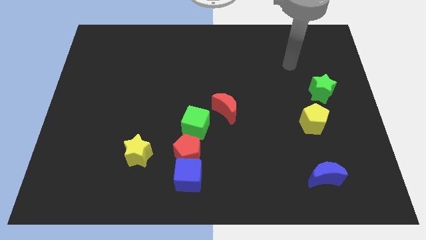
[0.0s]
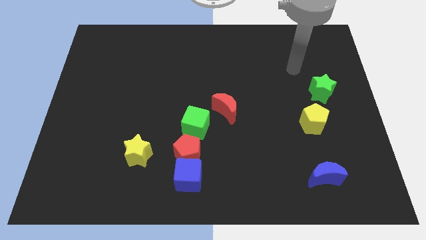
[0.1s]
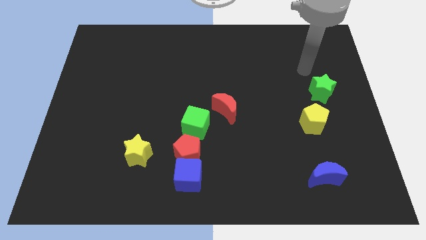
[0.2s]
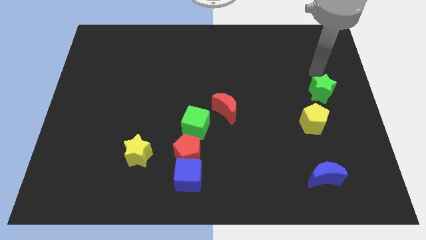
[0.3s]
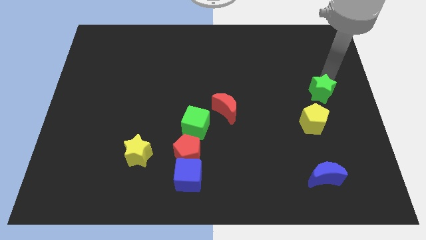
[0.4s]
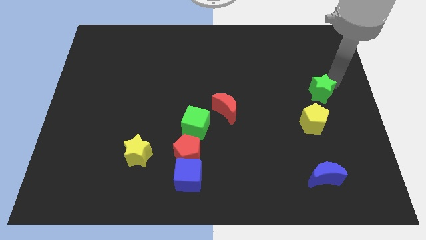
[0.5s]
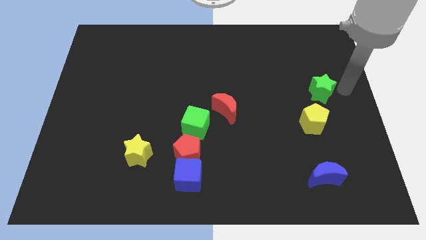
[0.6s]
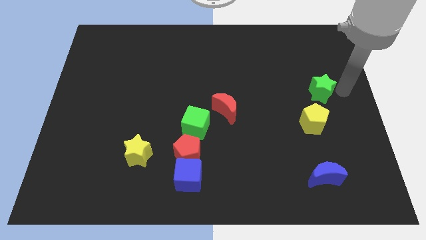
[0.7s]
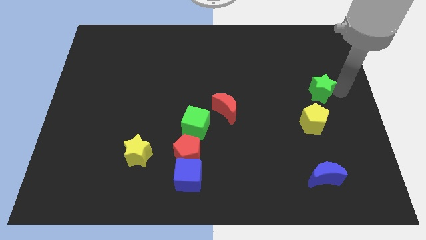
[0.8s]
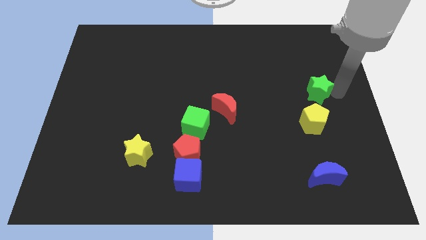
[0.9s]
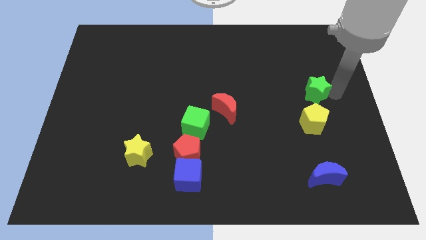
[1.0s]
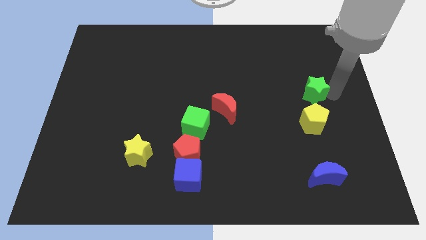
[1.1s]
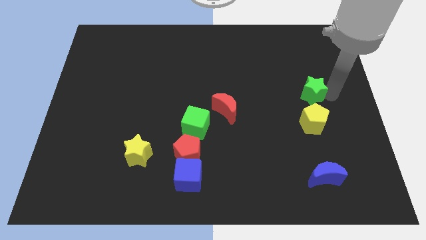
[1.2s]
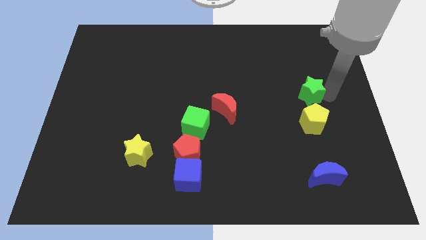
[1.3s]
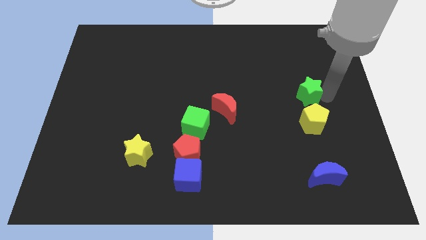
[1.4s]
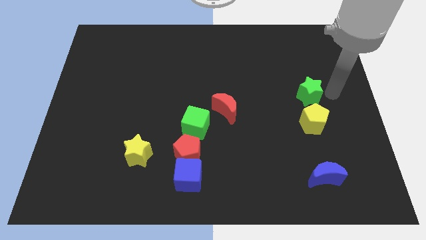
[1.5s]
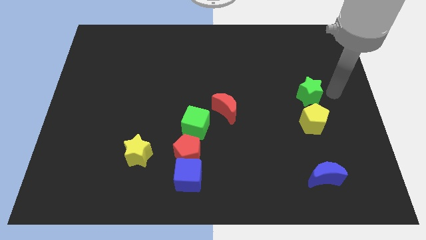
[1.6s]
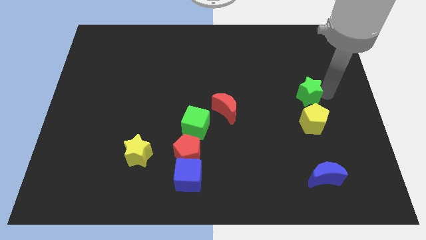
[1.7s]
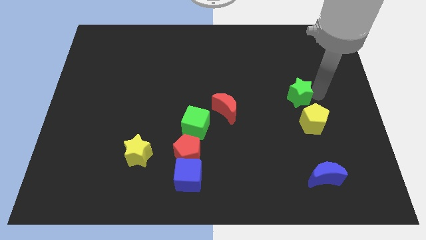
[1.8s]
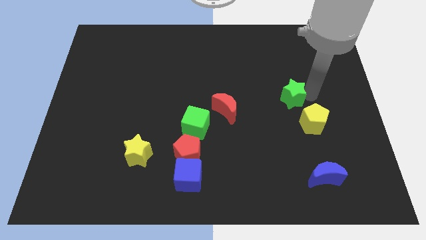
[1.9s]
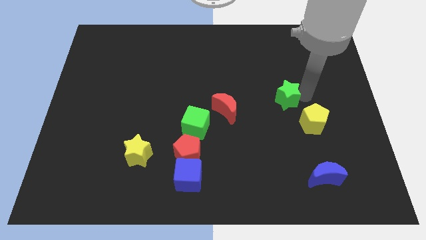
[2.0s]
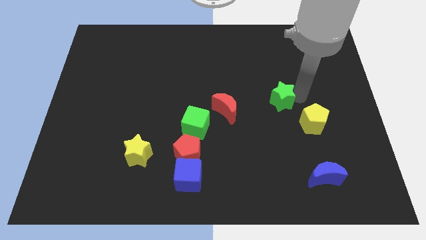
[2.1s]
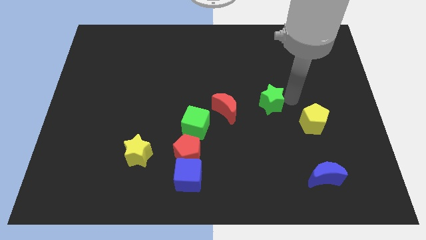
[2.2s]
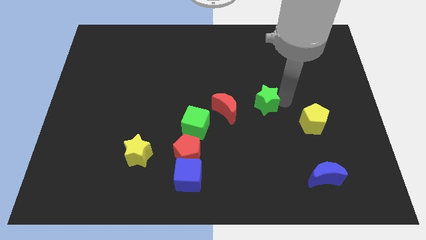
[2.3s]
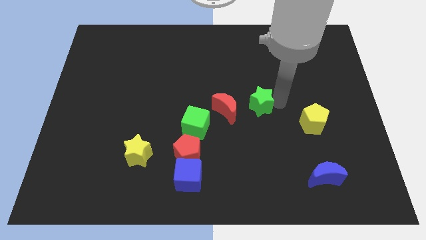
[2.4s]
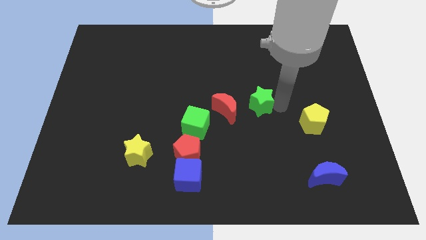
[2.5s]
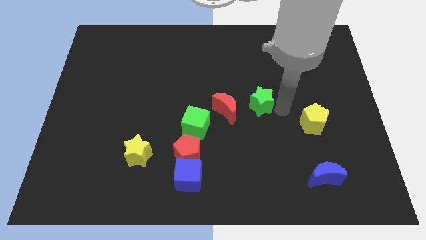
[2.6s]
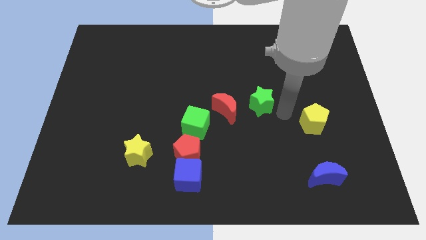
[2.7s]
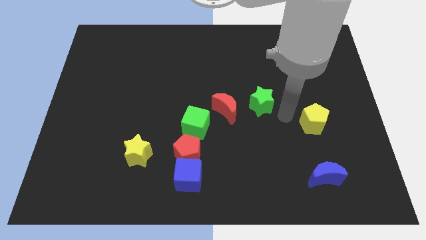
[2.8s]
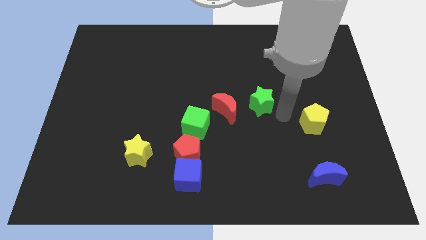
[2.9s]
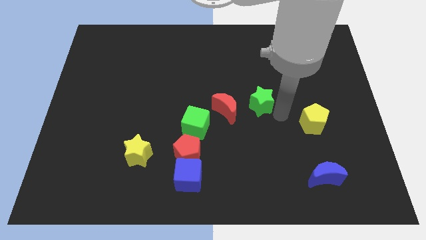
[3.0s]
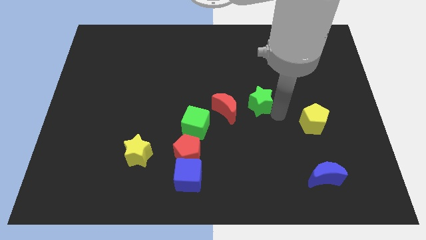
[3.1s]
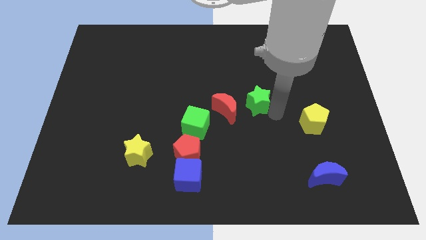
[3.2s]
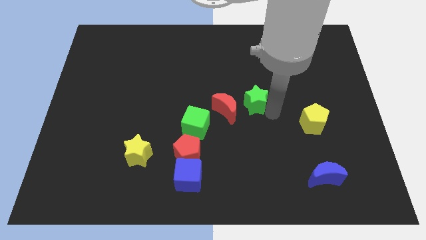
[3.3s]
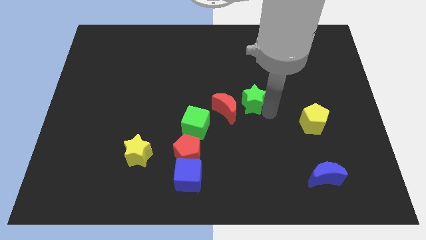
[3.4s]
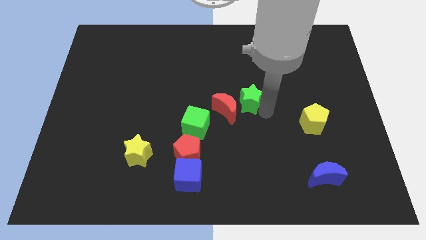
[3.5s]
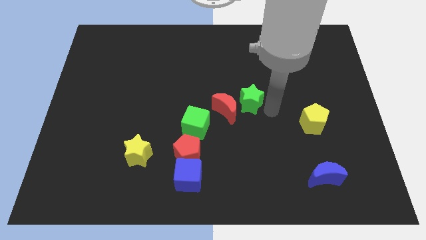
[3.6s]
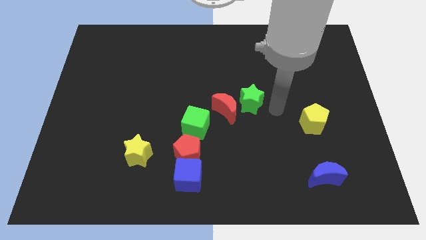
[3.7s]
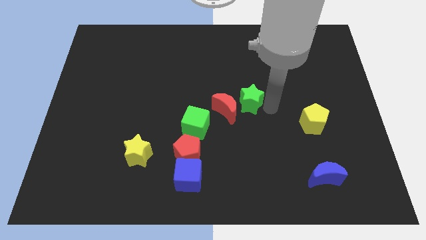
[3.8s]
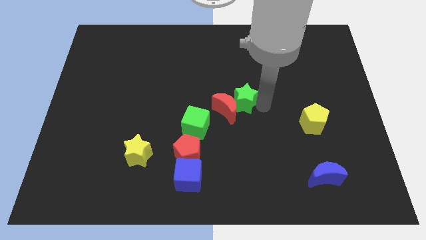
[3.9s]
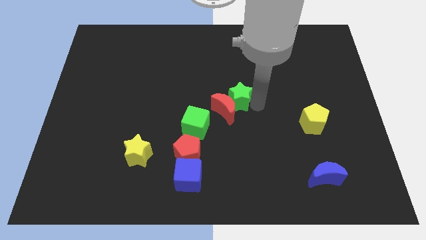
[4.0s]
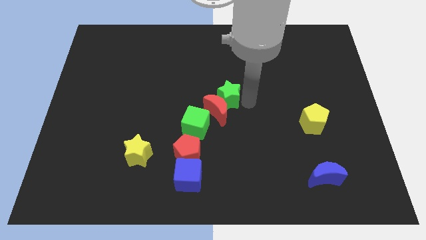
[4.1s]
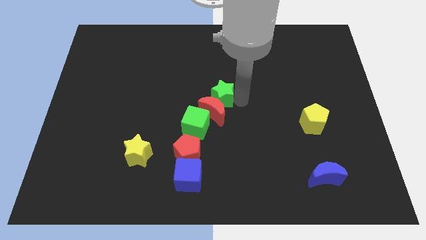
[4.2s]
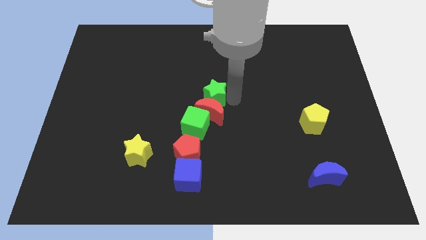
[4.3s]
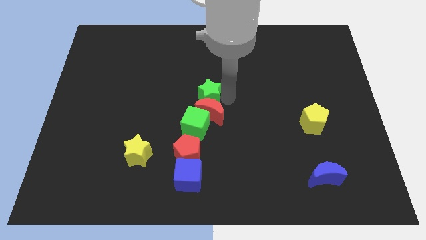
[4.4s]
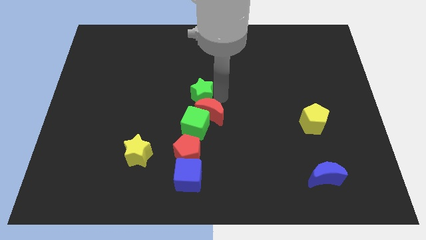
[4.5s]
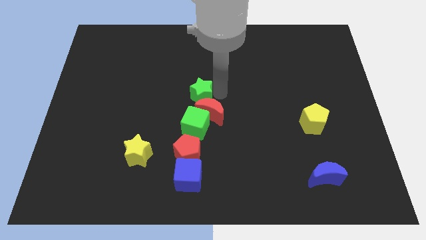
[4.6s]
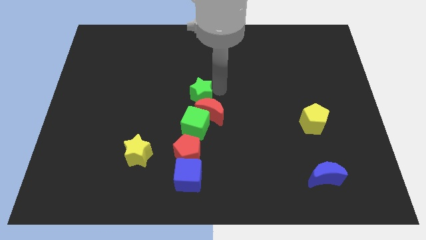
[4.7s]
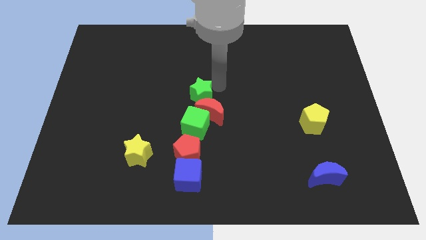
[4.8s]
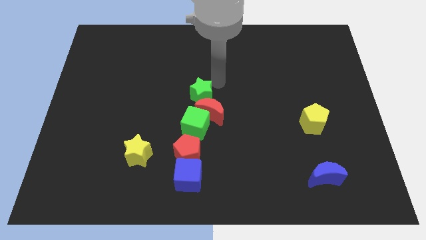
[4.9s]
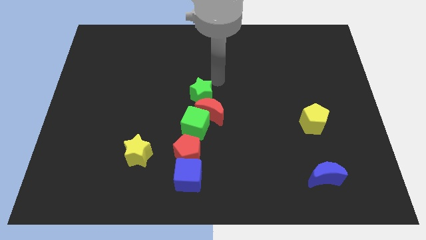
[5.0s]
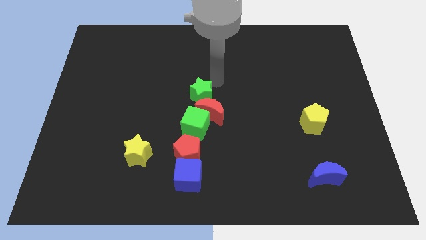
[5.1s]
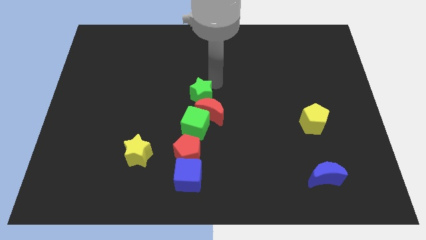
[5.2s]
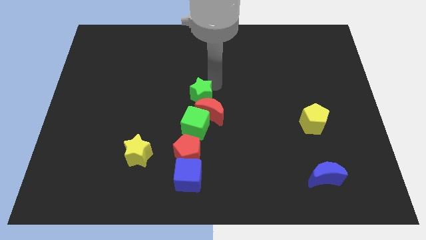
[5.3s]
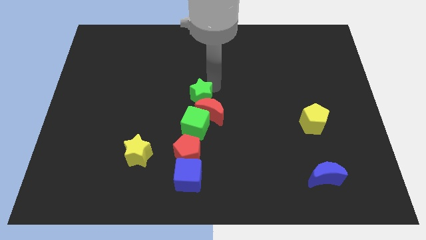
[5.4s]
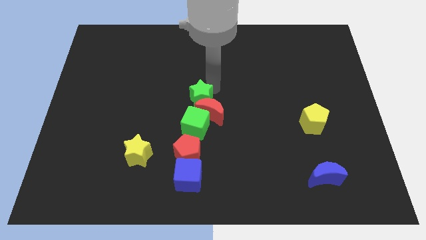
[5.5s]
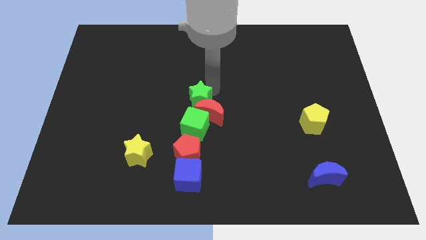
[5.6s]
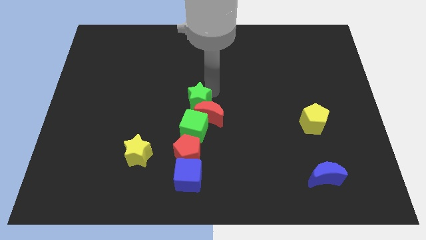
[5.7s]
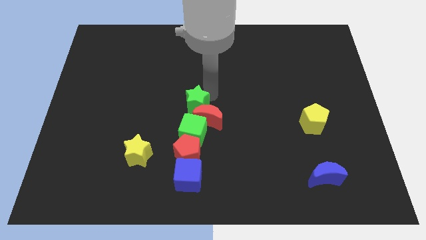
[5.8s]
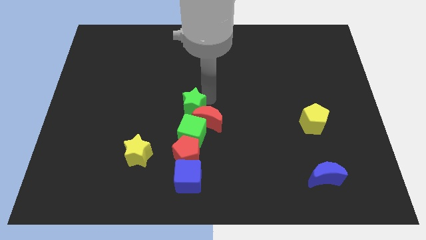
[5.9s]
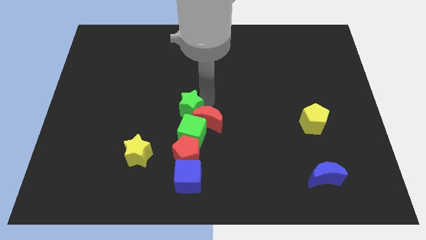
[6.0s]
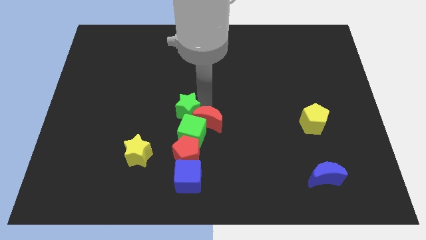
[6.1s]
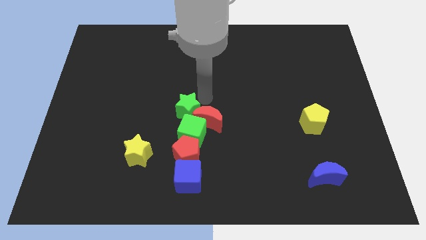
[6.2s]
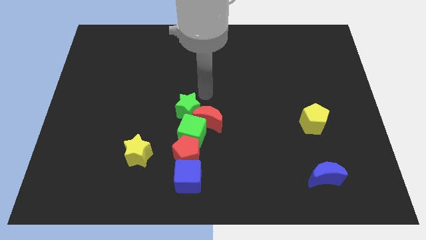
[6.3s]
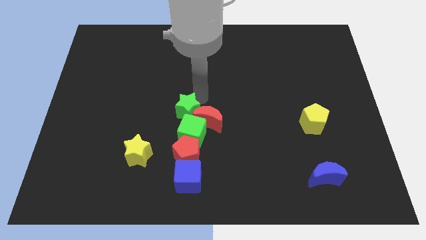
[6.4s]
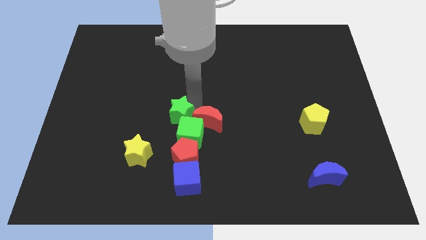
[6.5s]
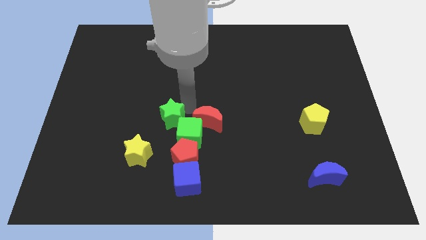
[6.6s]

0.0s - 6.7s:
slide the green star to the top right of the yellow star

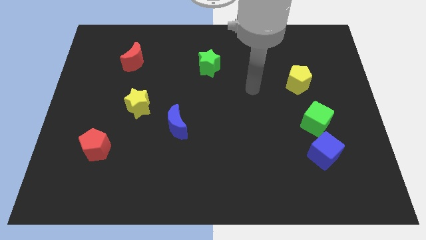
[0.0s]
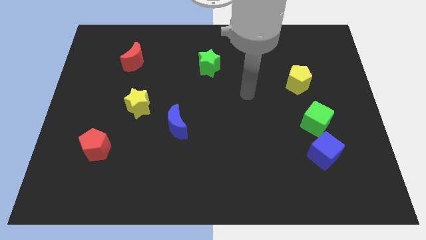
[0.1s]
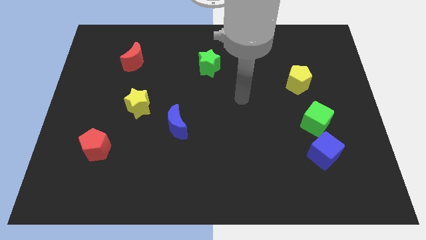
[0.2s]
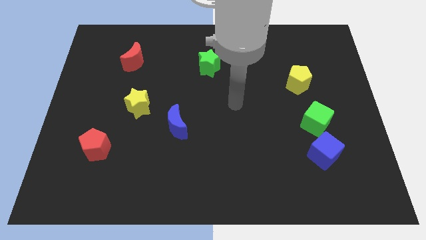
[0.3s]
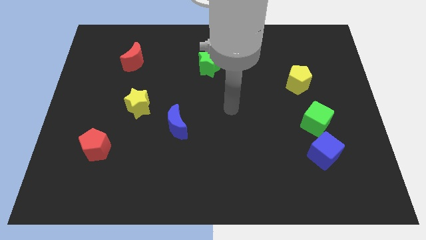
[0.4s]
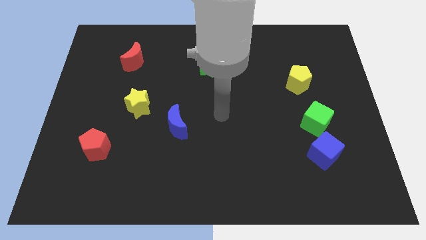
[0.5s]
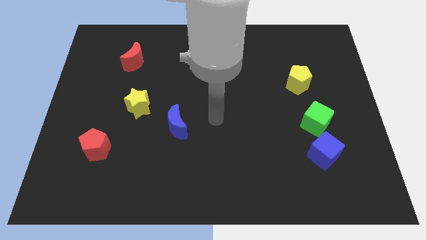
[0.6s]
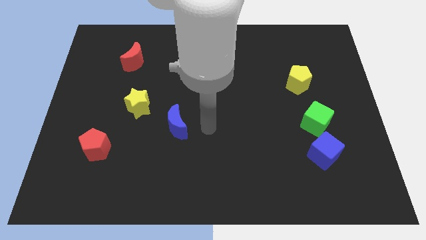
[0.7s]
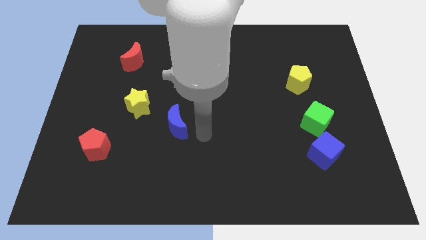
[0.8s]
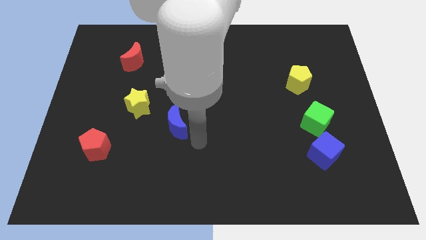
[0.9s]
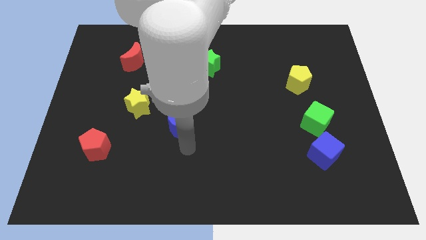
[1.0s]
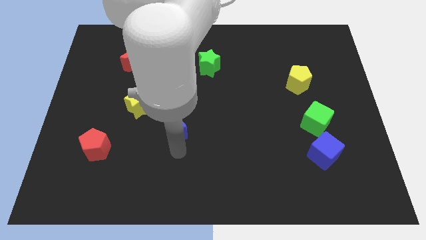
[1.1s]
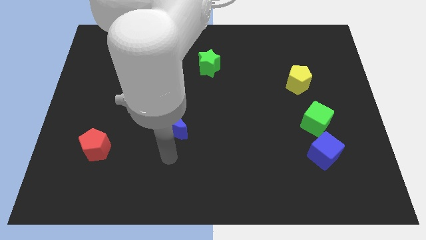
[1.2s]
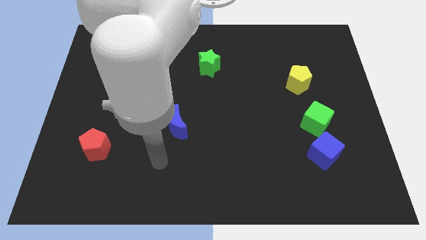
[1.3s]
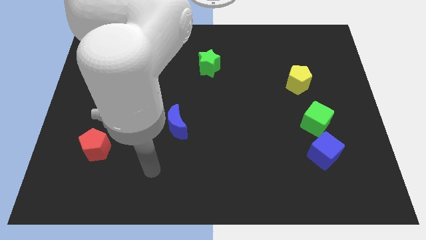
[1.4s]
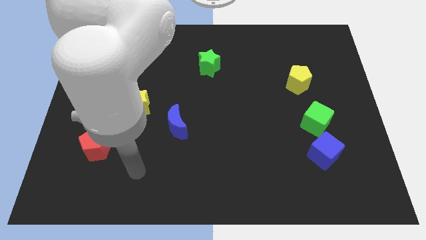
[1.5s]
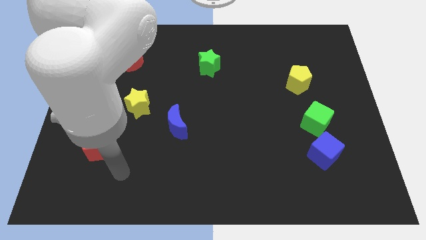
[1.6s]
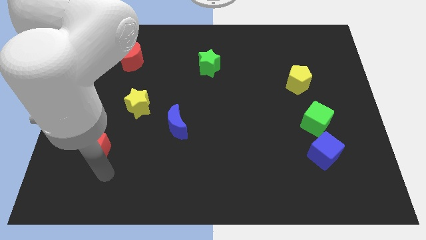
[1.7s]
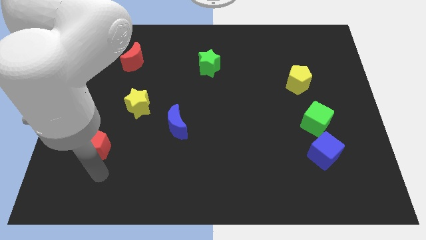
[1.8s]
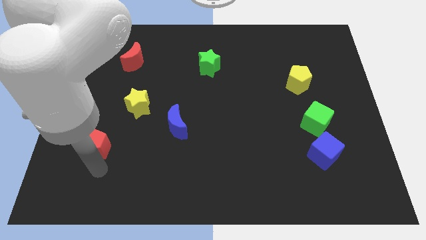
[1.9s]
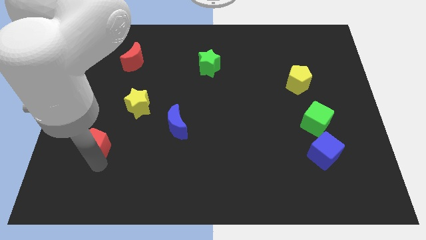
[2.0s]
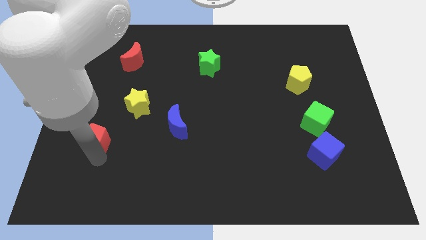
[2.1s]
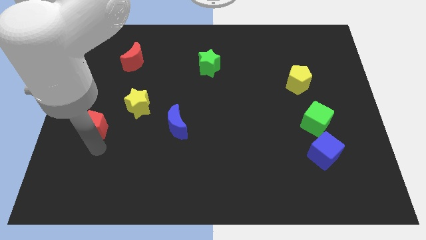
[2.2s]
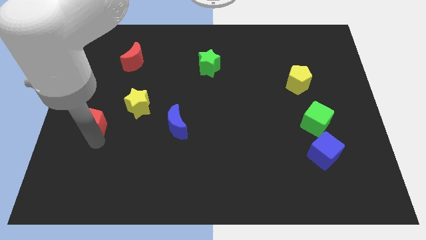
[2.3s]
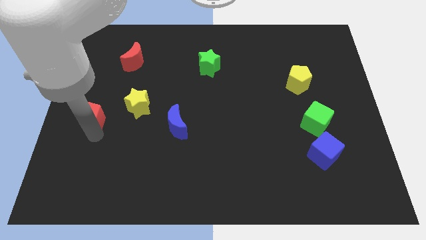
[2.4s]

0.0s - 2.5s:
slide the red pentagon left of the yellow star

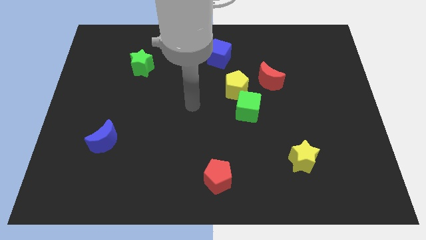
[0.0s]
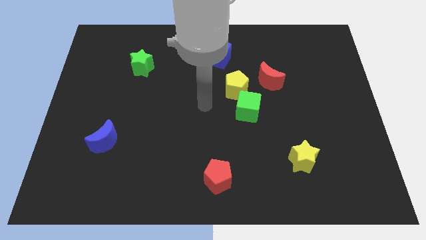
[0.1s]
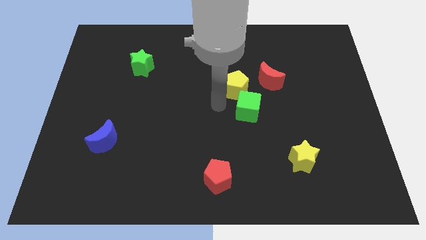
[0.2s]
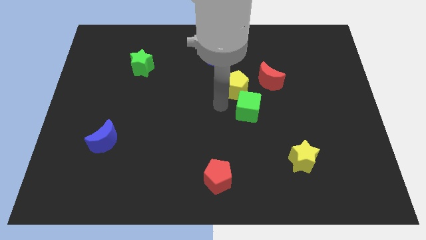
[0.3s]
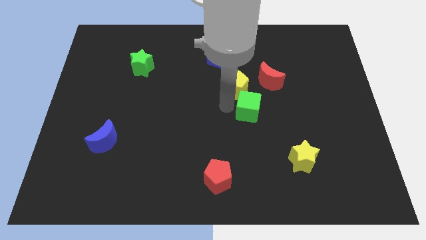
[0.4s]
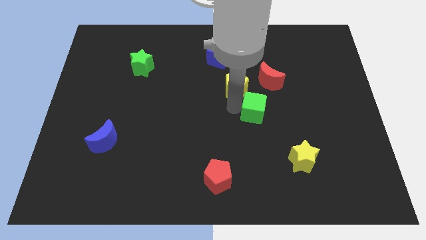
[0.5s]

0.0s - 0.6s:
push the green cube below the red moon
